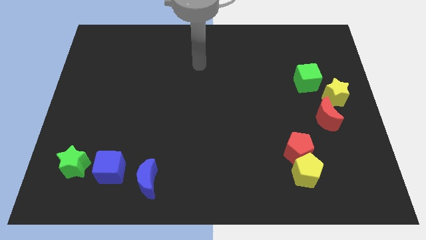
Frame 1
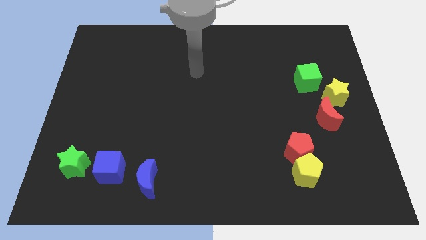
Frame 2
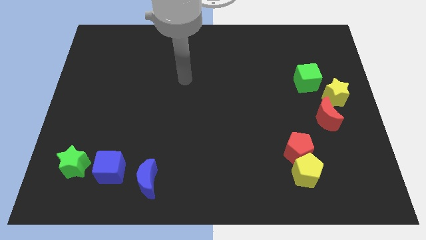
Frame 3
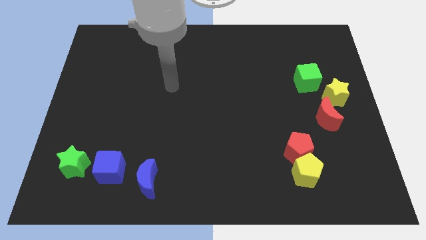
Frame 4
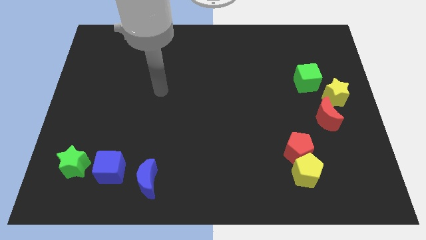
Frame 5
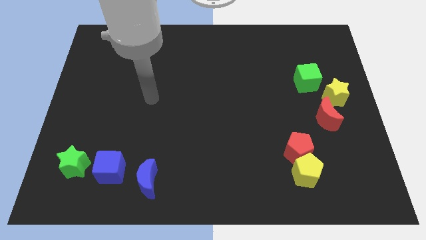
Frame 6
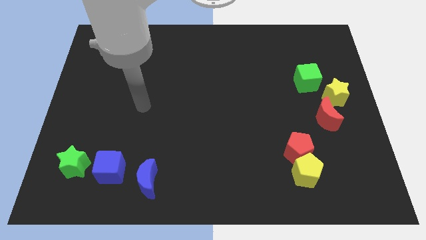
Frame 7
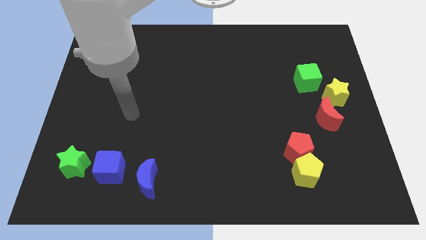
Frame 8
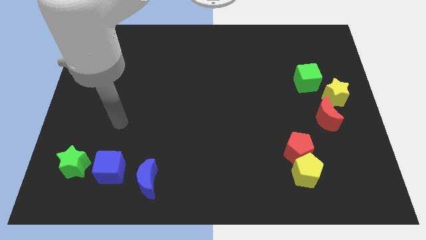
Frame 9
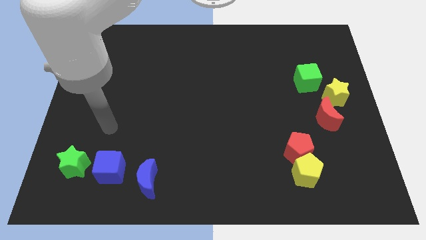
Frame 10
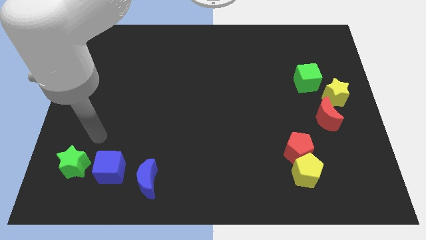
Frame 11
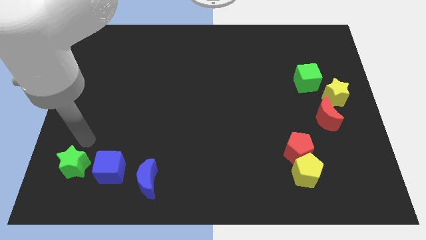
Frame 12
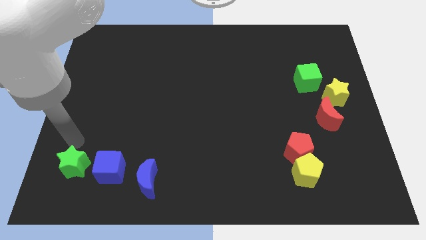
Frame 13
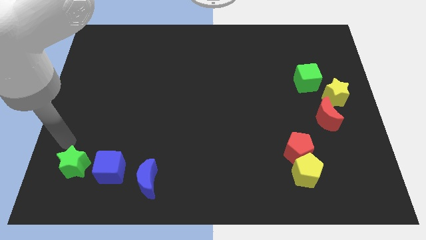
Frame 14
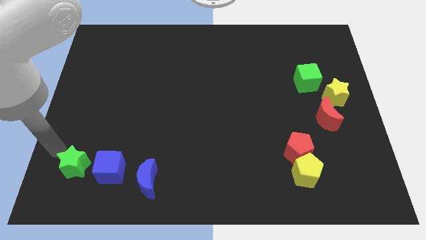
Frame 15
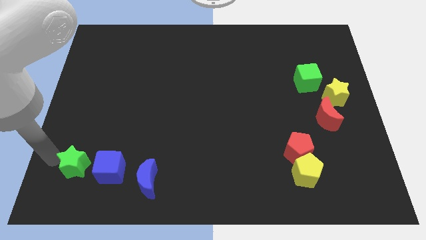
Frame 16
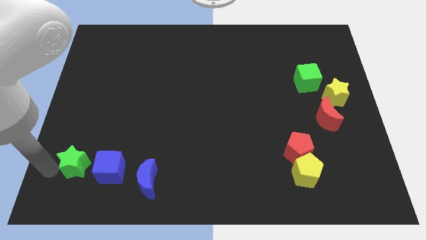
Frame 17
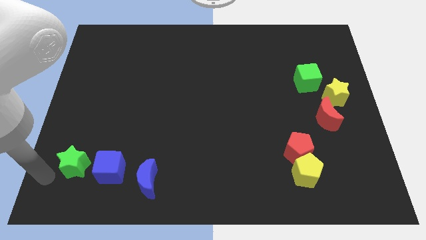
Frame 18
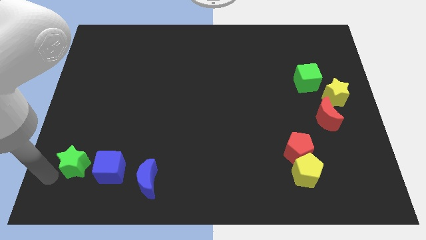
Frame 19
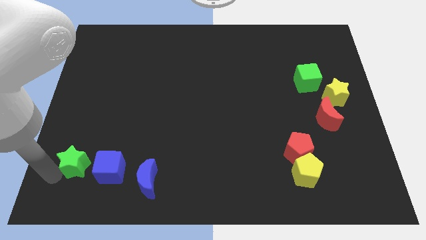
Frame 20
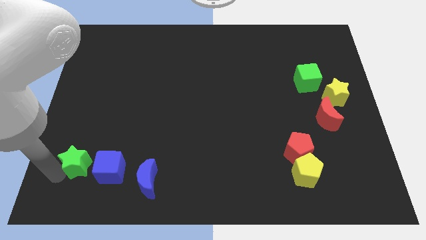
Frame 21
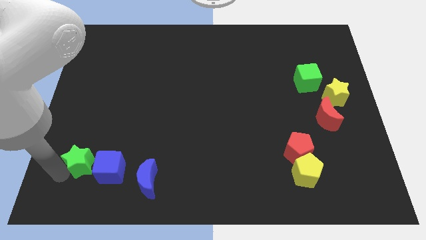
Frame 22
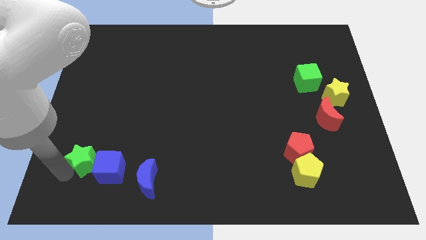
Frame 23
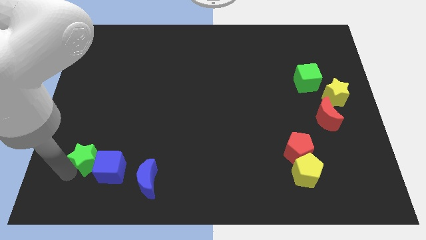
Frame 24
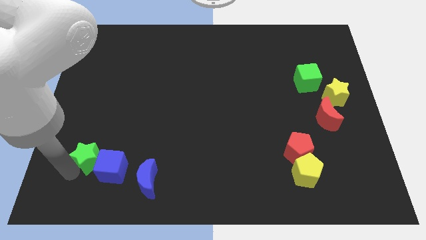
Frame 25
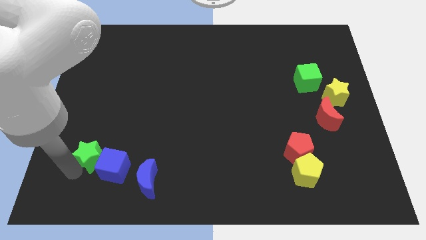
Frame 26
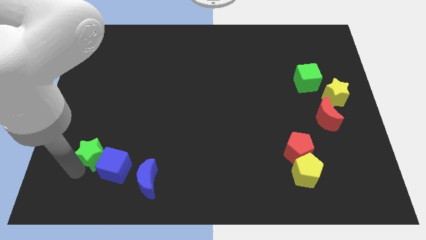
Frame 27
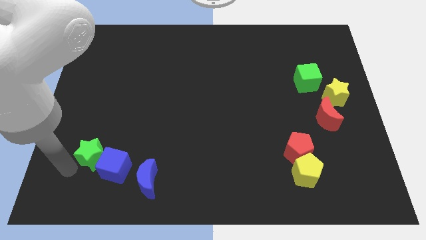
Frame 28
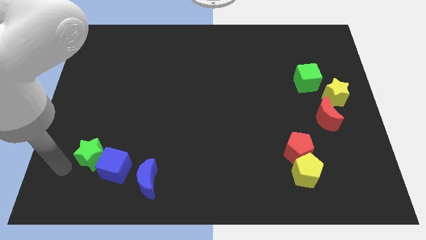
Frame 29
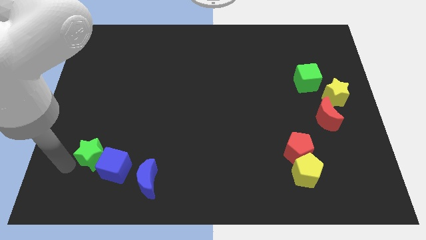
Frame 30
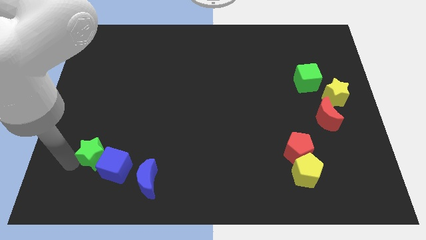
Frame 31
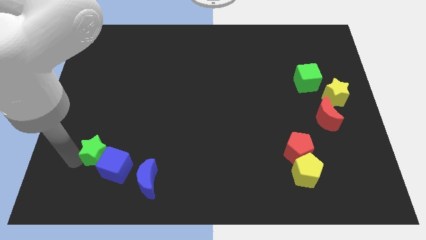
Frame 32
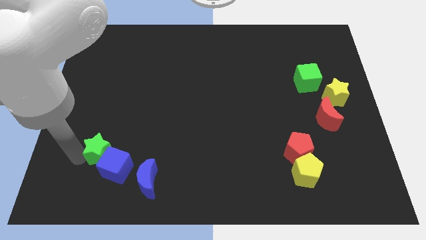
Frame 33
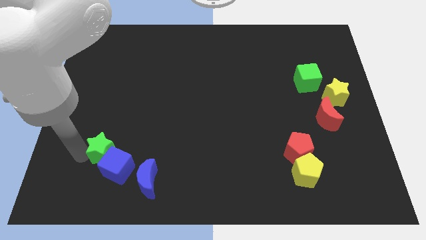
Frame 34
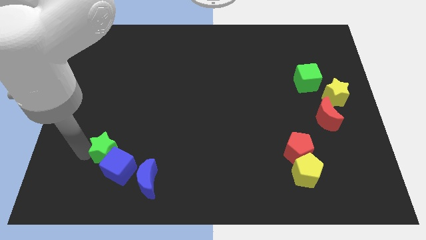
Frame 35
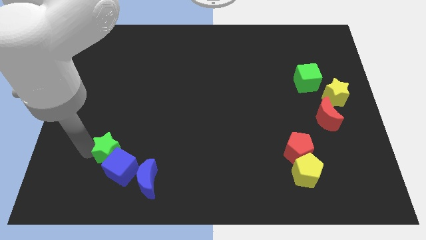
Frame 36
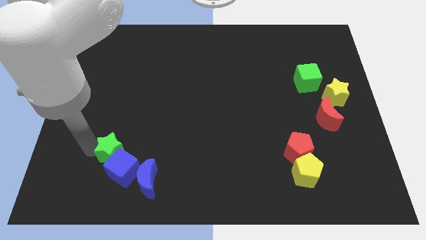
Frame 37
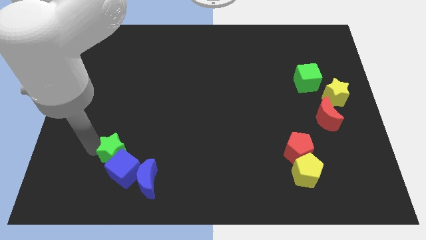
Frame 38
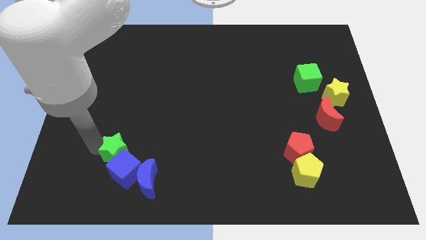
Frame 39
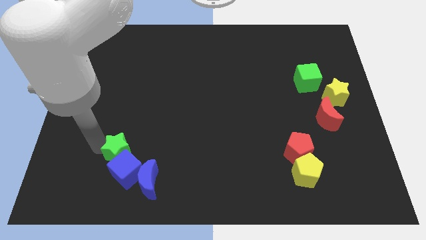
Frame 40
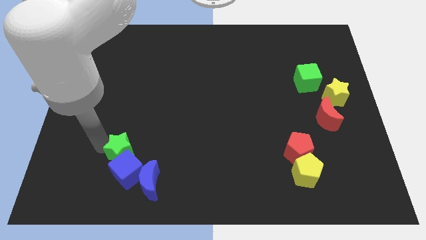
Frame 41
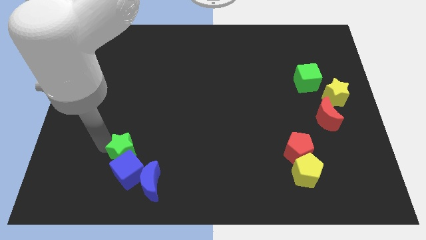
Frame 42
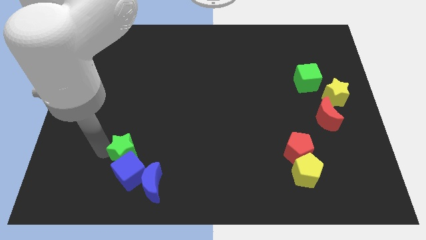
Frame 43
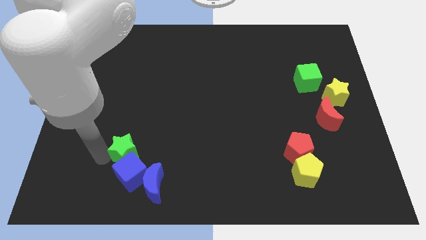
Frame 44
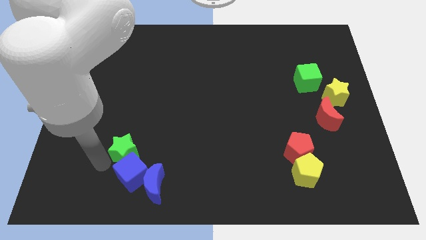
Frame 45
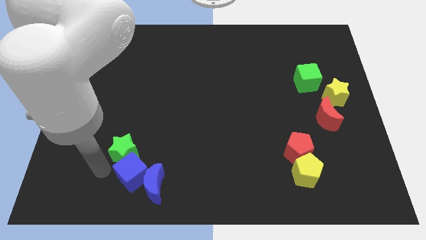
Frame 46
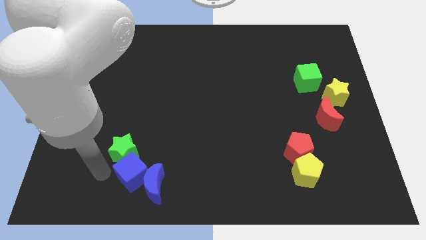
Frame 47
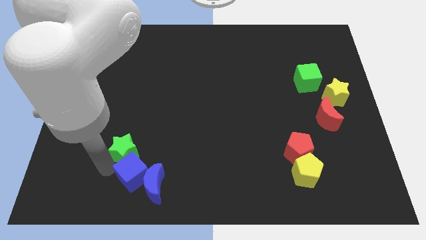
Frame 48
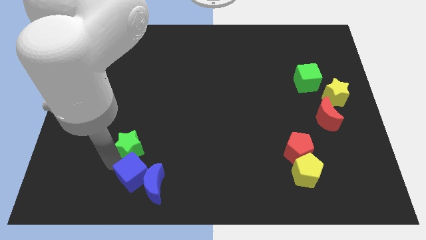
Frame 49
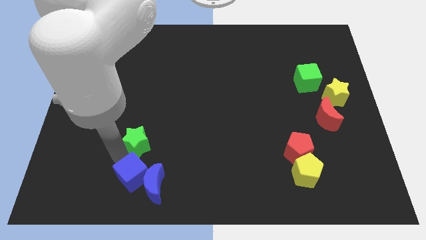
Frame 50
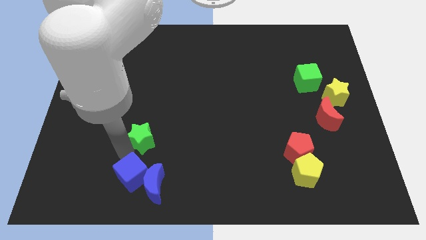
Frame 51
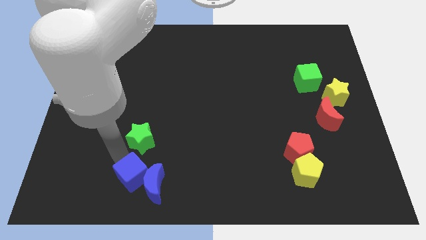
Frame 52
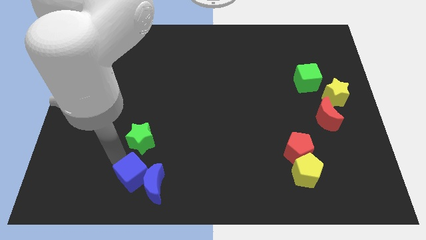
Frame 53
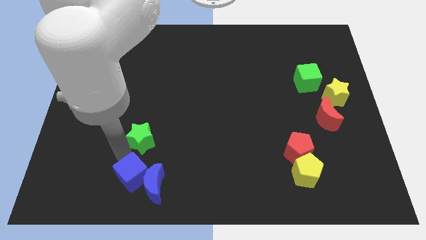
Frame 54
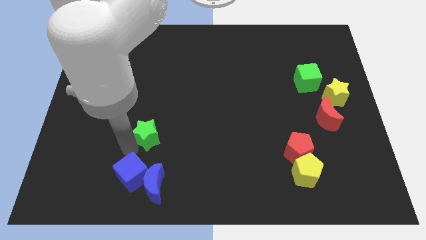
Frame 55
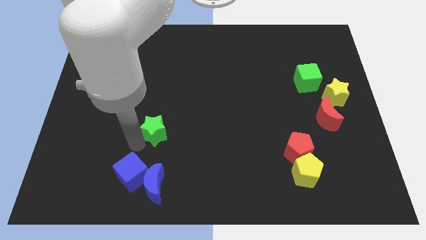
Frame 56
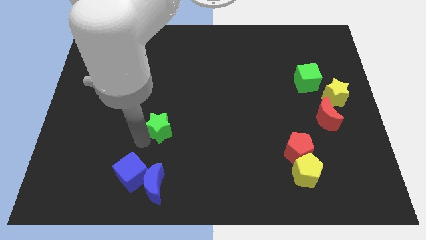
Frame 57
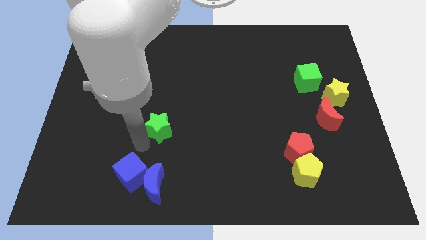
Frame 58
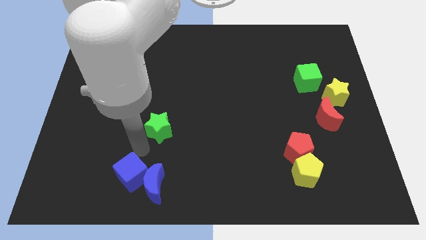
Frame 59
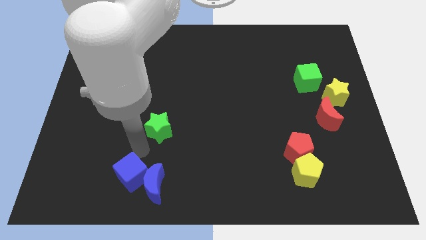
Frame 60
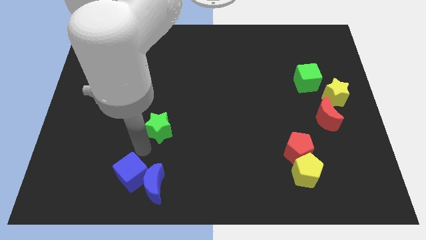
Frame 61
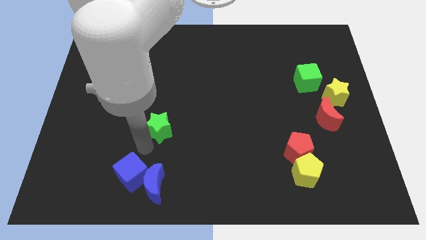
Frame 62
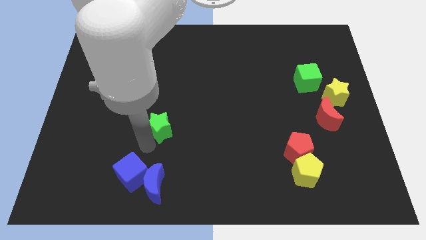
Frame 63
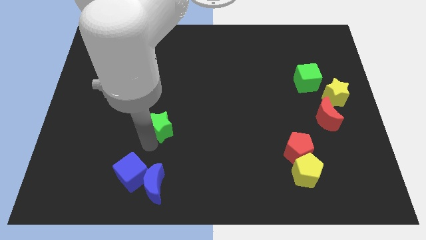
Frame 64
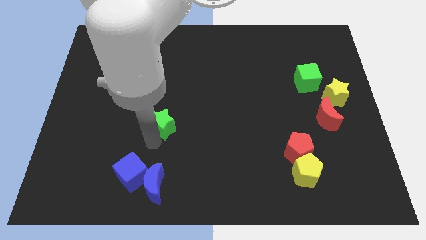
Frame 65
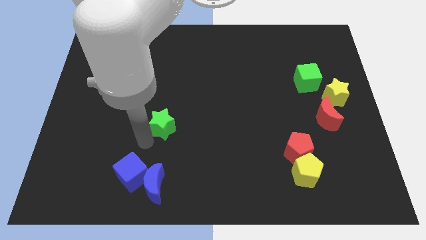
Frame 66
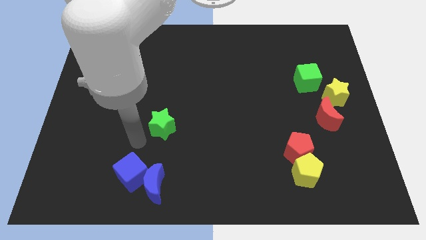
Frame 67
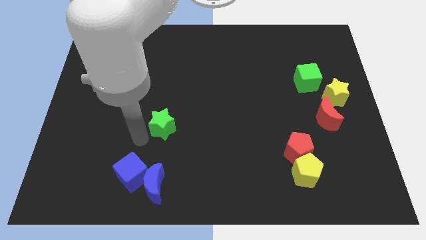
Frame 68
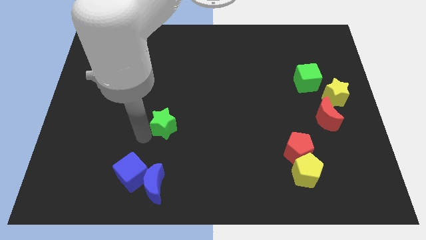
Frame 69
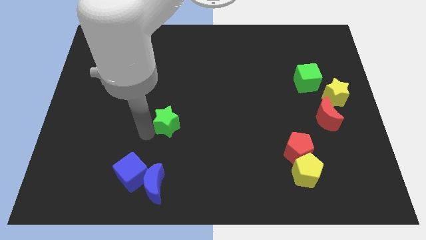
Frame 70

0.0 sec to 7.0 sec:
slide the green star to the center
